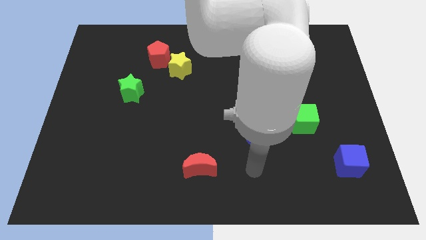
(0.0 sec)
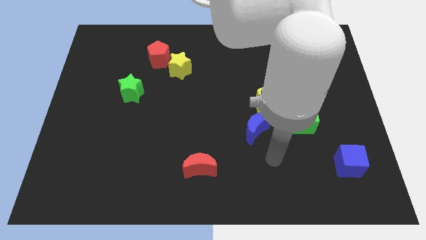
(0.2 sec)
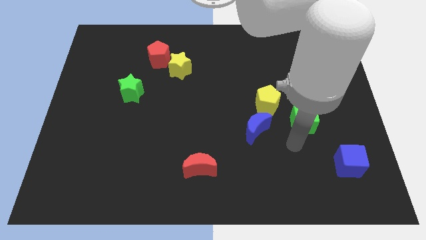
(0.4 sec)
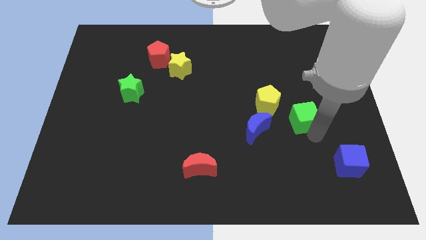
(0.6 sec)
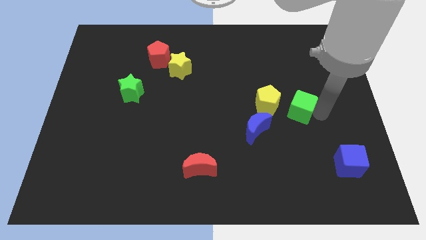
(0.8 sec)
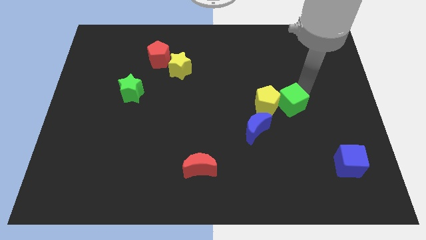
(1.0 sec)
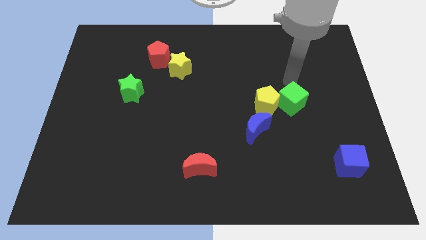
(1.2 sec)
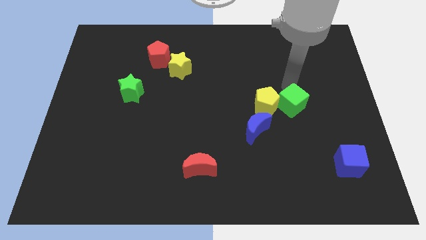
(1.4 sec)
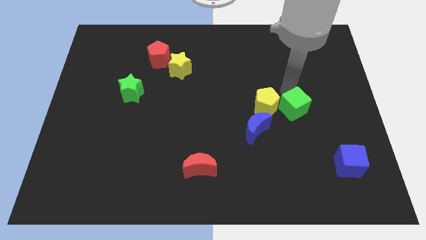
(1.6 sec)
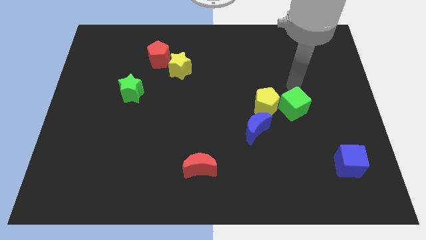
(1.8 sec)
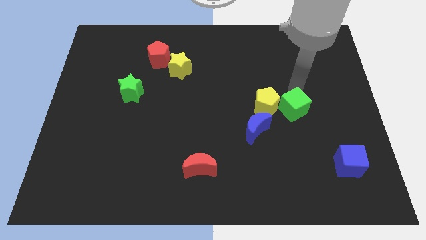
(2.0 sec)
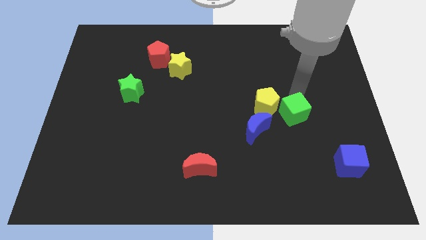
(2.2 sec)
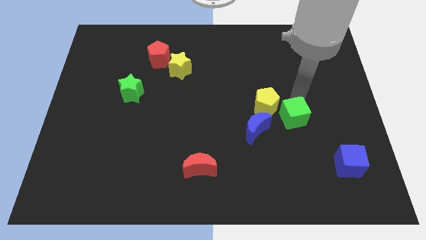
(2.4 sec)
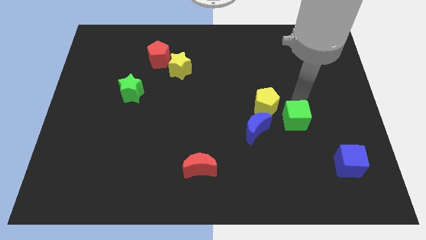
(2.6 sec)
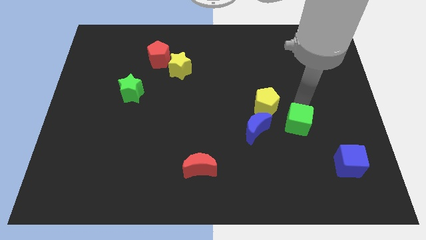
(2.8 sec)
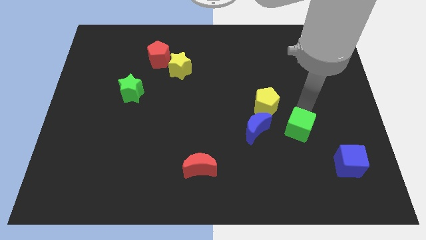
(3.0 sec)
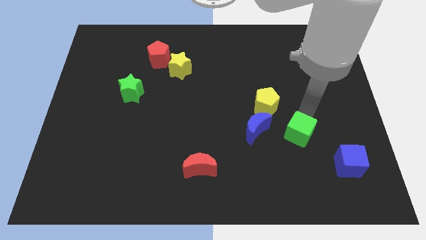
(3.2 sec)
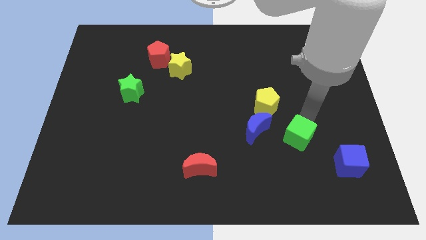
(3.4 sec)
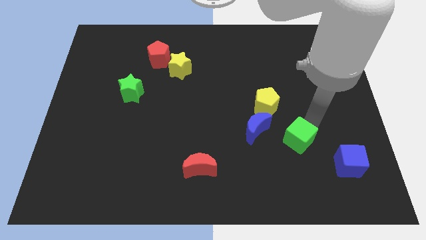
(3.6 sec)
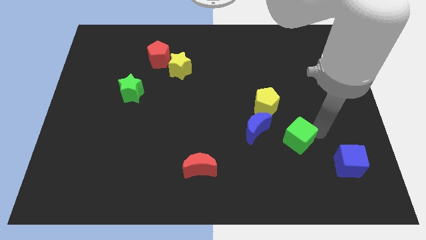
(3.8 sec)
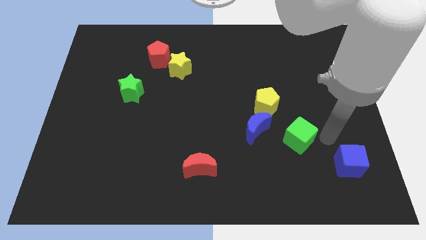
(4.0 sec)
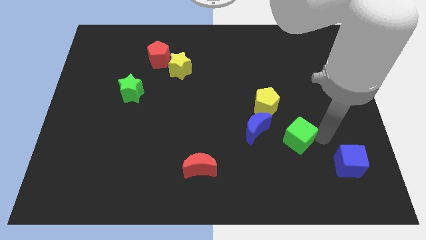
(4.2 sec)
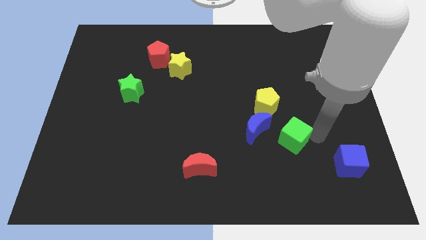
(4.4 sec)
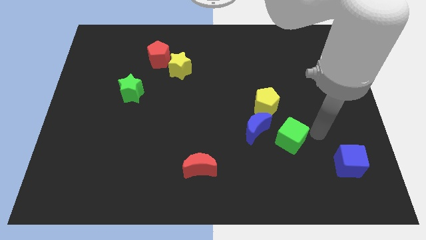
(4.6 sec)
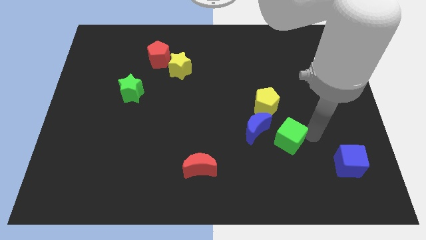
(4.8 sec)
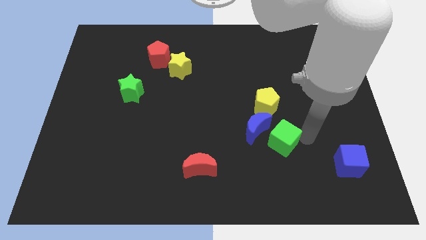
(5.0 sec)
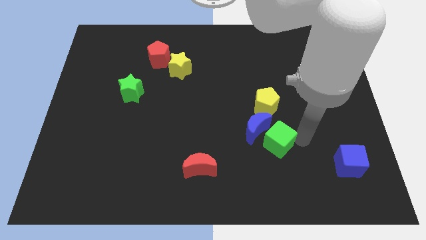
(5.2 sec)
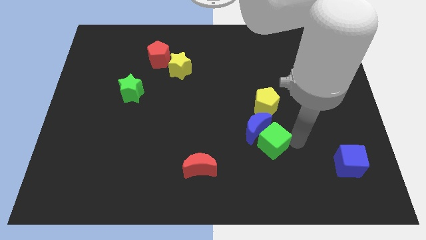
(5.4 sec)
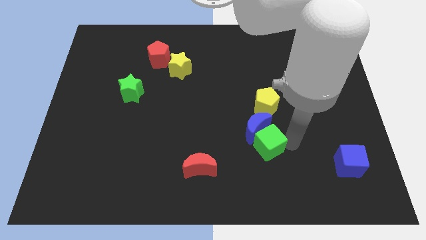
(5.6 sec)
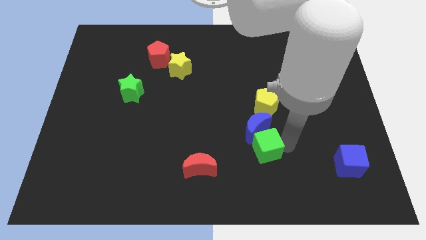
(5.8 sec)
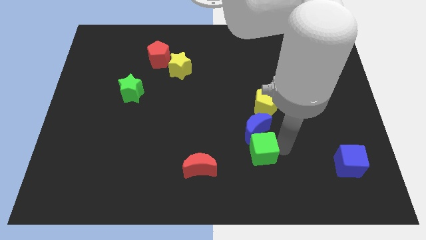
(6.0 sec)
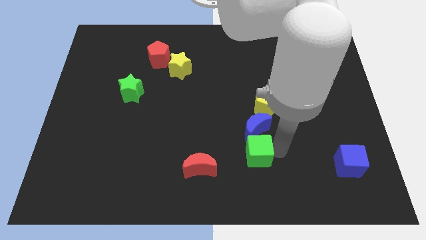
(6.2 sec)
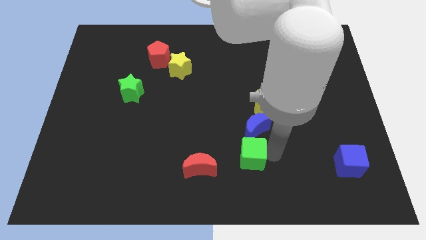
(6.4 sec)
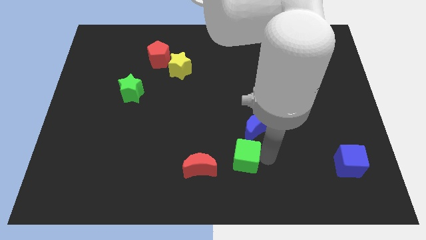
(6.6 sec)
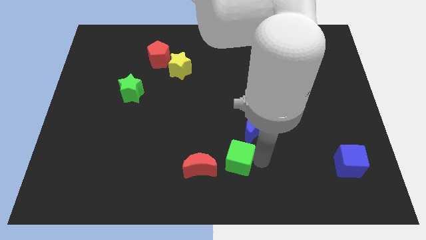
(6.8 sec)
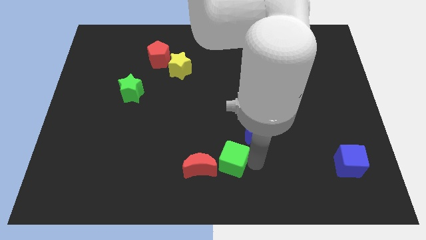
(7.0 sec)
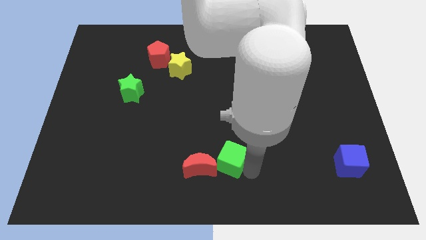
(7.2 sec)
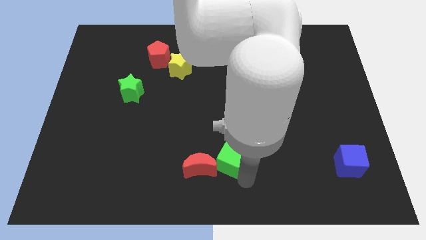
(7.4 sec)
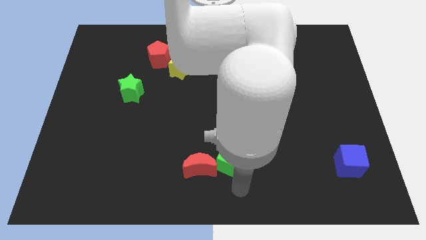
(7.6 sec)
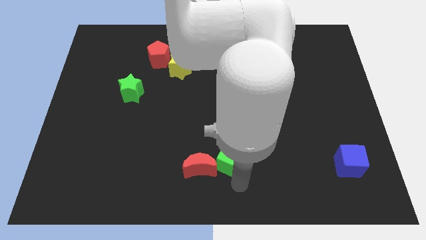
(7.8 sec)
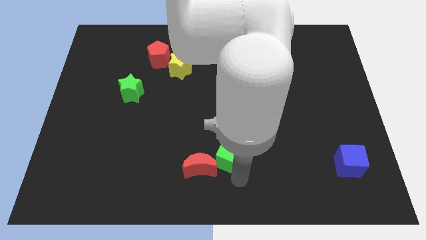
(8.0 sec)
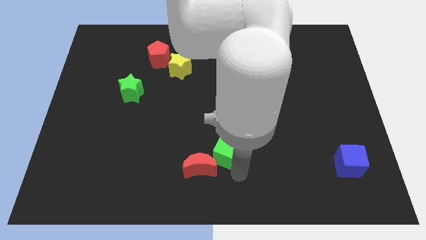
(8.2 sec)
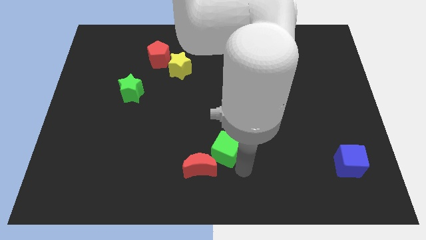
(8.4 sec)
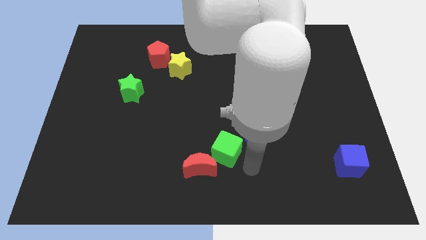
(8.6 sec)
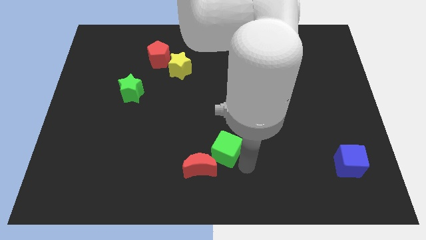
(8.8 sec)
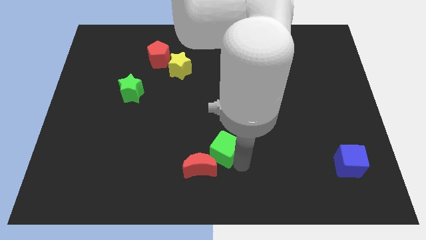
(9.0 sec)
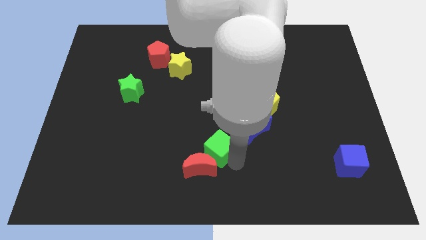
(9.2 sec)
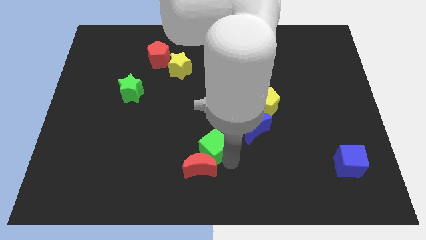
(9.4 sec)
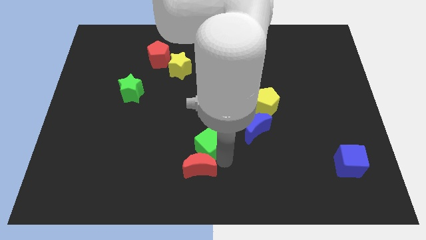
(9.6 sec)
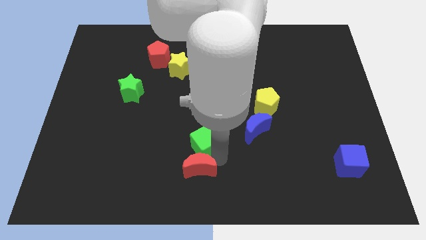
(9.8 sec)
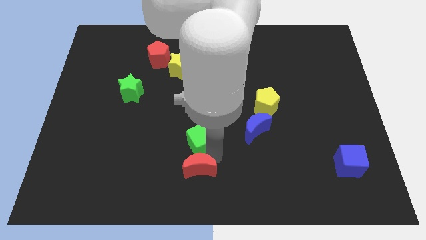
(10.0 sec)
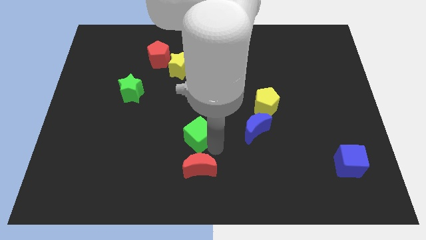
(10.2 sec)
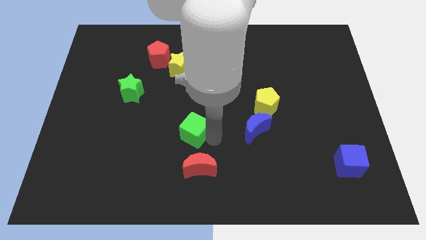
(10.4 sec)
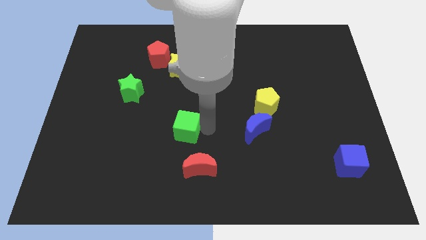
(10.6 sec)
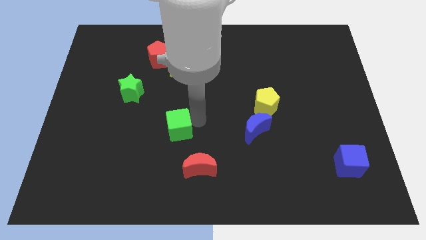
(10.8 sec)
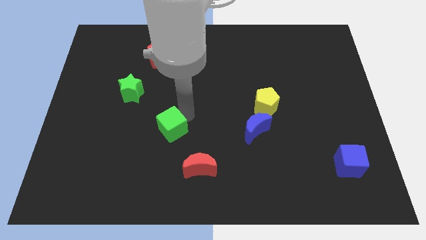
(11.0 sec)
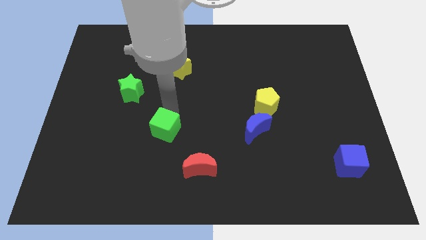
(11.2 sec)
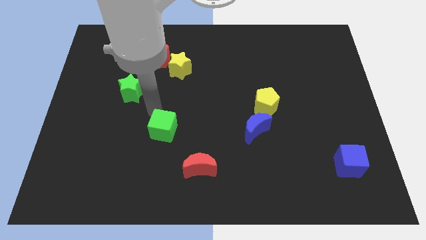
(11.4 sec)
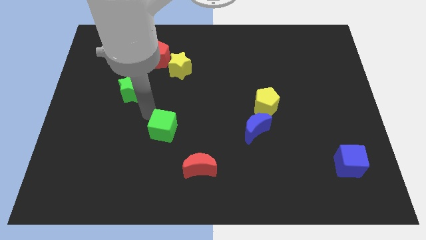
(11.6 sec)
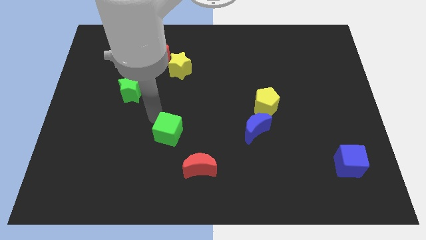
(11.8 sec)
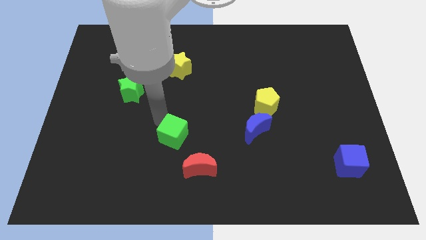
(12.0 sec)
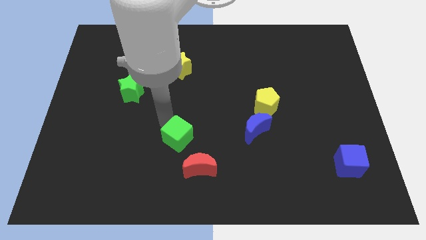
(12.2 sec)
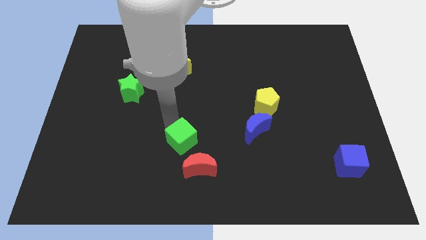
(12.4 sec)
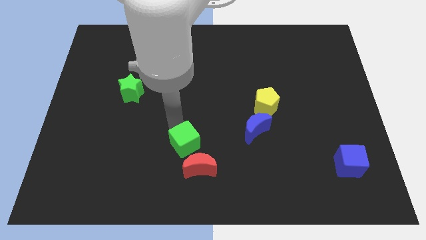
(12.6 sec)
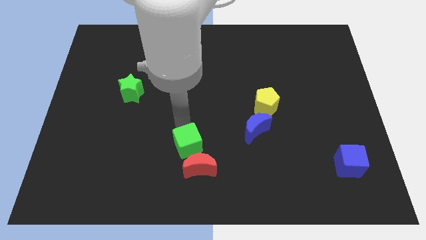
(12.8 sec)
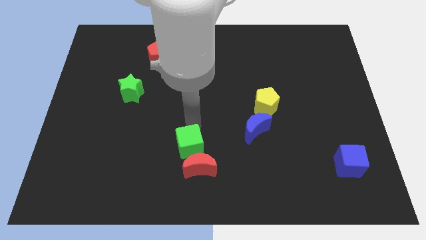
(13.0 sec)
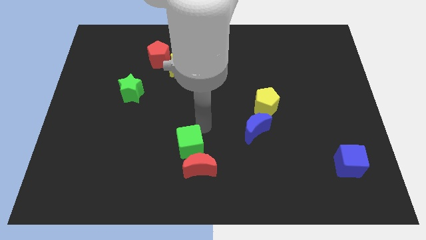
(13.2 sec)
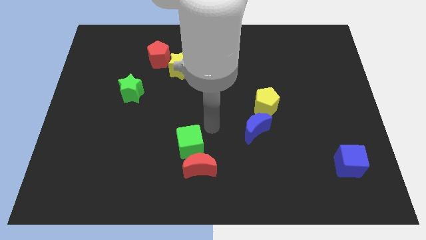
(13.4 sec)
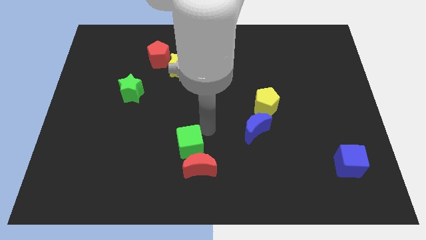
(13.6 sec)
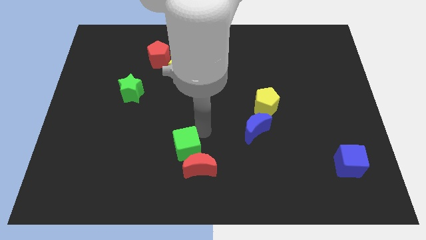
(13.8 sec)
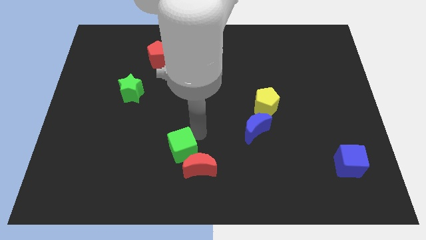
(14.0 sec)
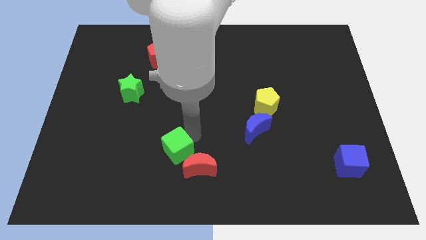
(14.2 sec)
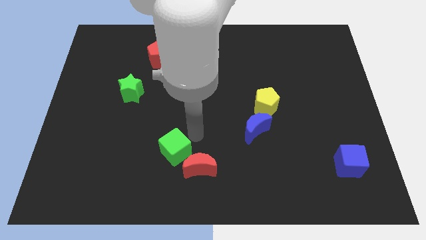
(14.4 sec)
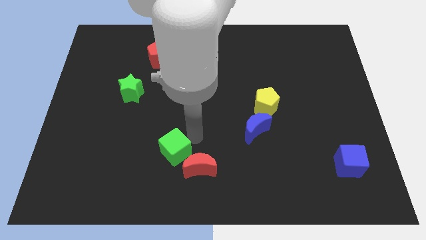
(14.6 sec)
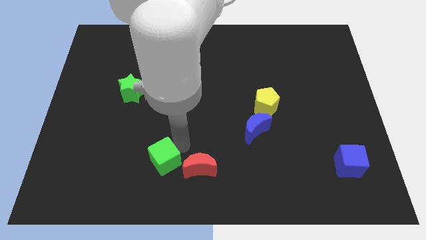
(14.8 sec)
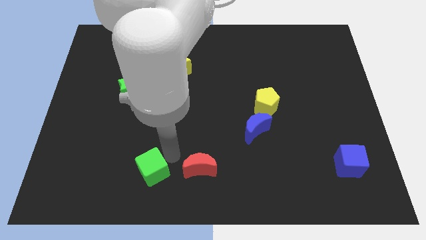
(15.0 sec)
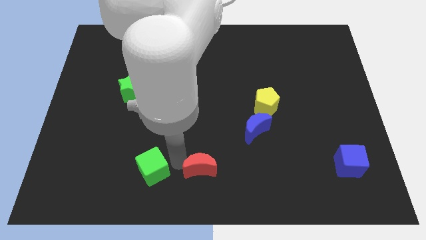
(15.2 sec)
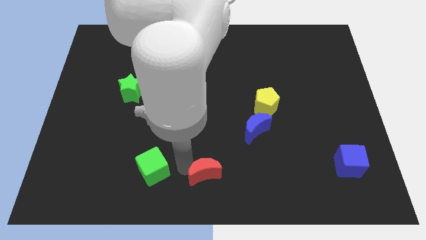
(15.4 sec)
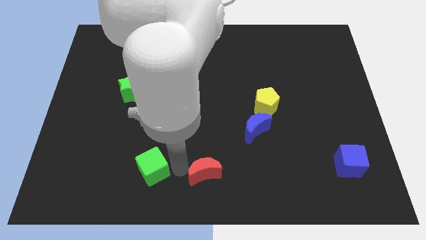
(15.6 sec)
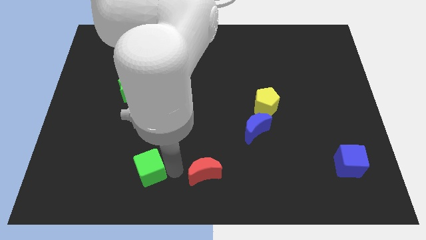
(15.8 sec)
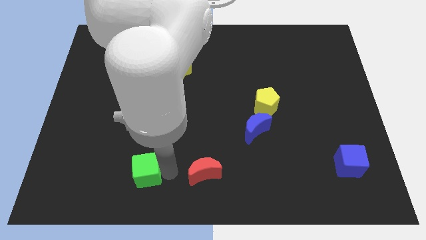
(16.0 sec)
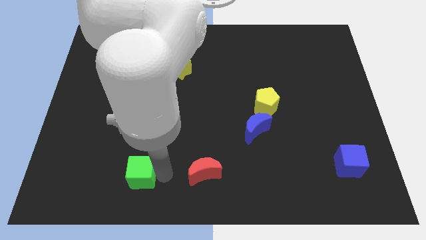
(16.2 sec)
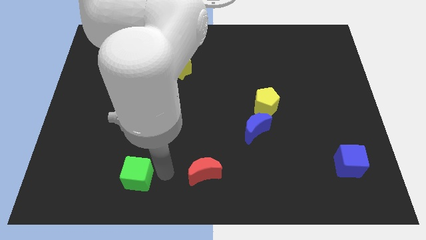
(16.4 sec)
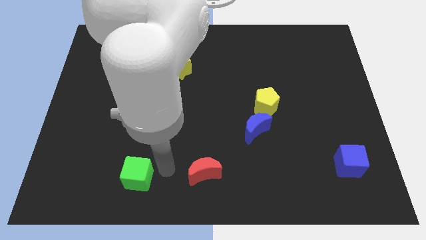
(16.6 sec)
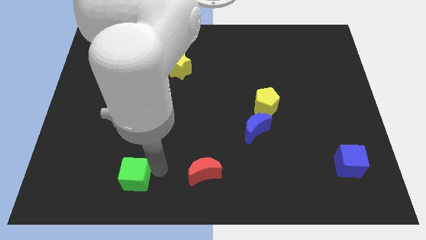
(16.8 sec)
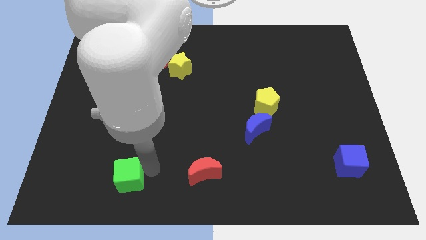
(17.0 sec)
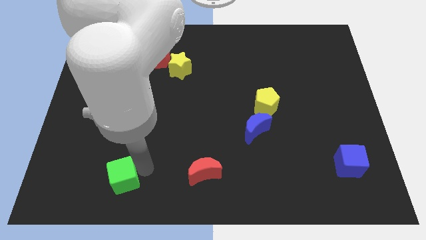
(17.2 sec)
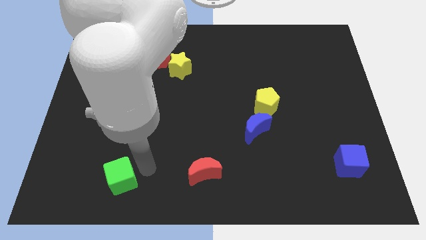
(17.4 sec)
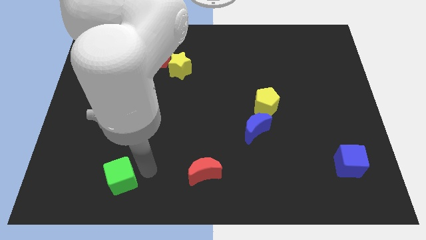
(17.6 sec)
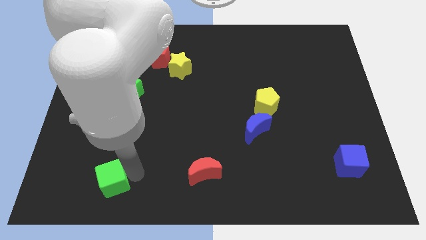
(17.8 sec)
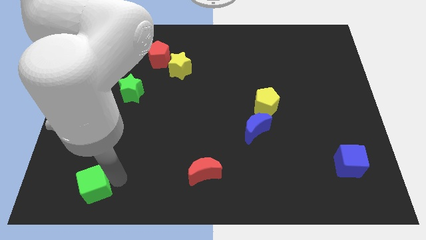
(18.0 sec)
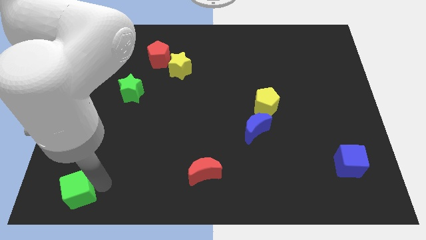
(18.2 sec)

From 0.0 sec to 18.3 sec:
push the green cube to the lower left corner
